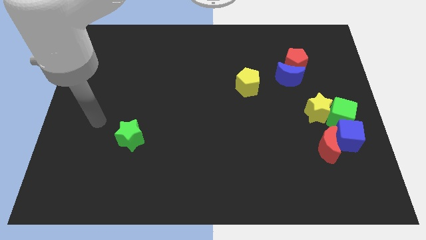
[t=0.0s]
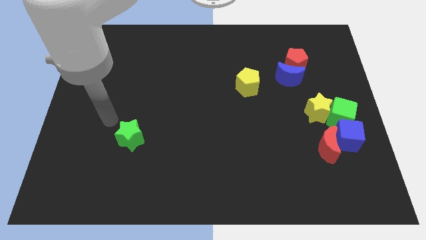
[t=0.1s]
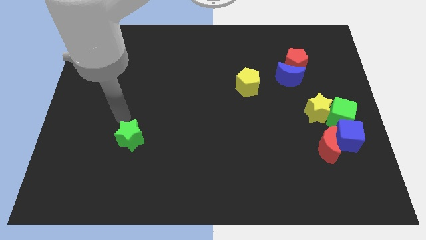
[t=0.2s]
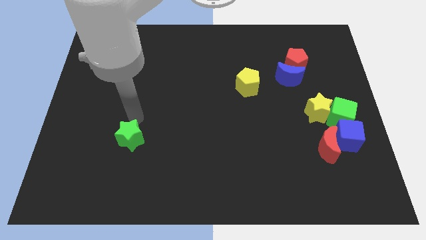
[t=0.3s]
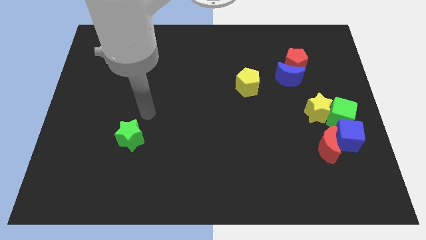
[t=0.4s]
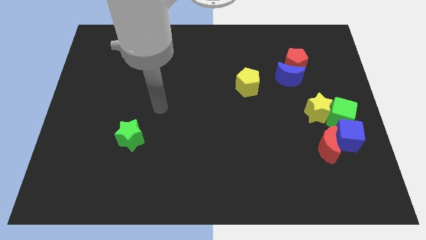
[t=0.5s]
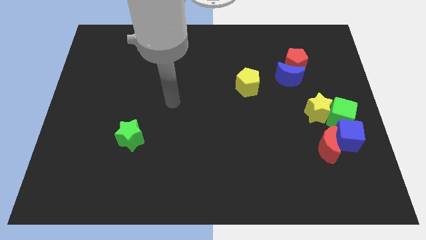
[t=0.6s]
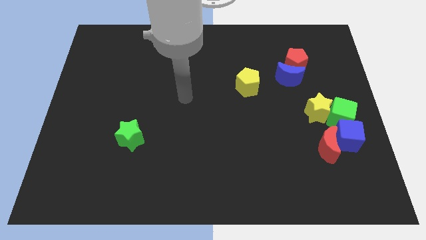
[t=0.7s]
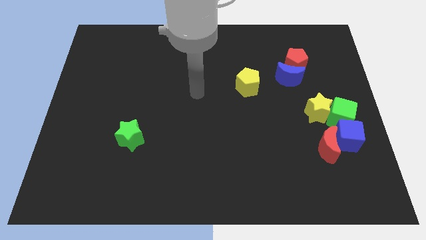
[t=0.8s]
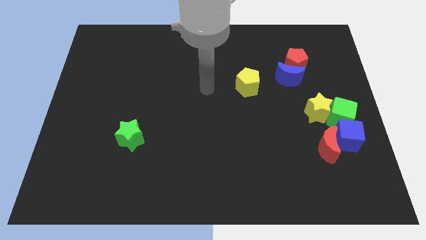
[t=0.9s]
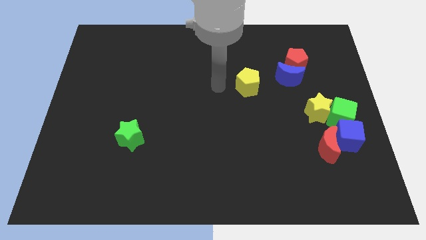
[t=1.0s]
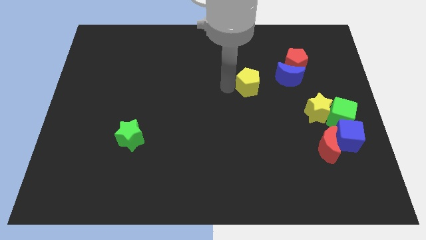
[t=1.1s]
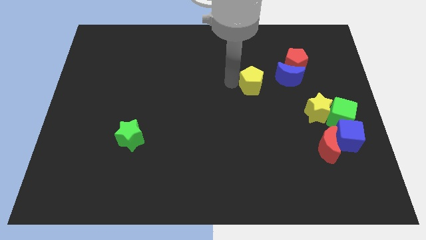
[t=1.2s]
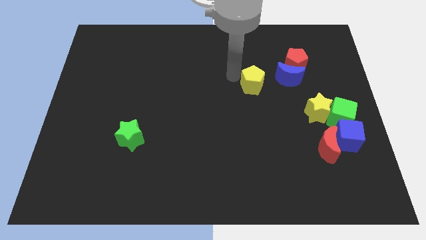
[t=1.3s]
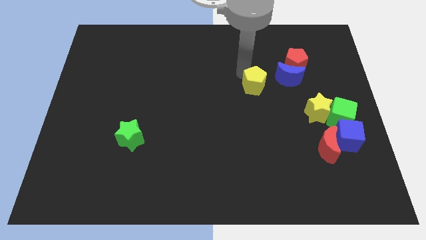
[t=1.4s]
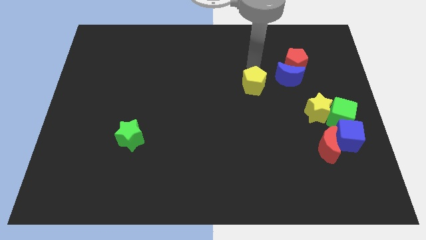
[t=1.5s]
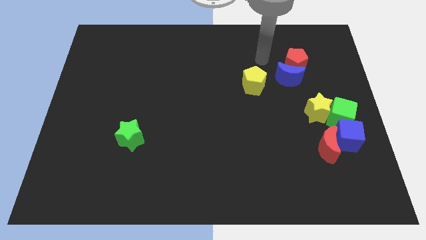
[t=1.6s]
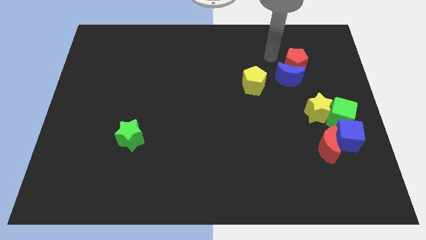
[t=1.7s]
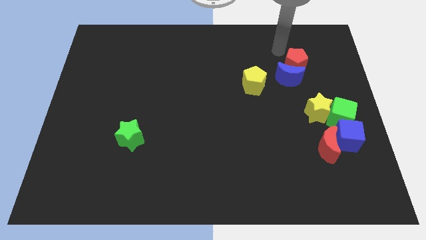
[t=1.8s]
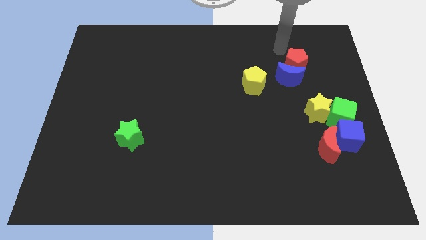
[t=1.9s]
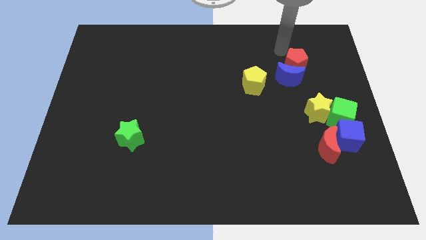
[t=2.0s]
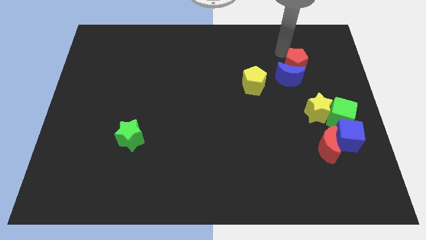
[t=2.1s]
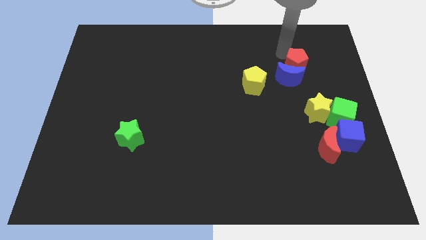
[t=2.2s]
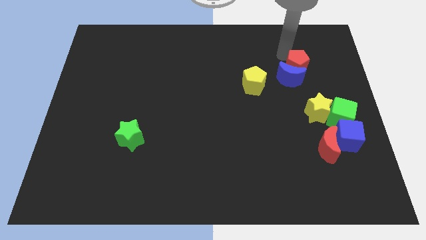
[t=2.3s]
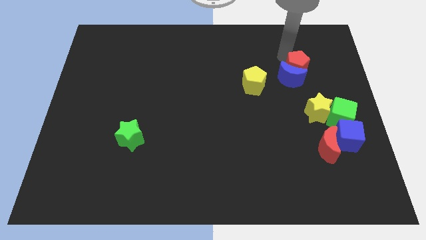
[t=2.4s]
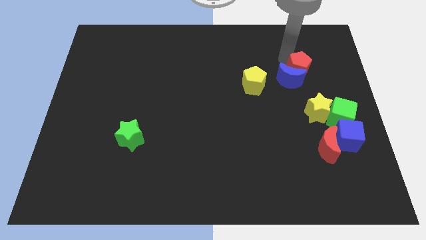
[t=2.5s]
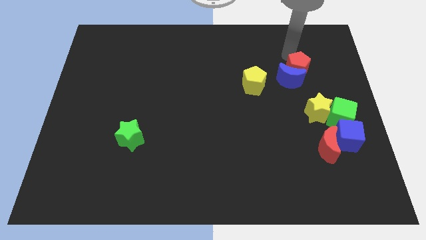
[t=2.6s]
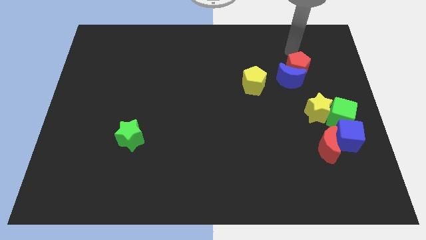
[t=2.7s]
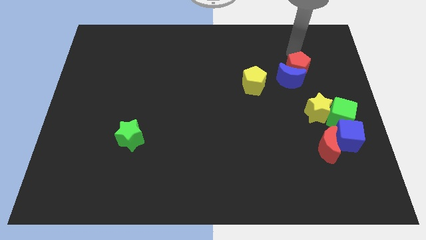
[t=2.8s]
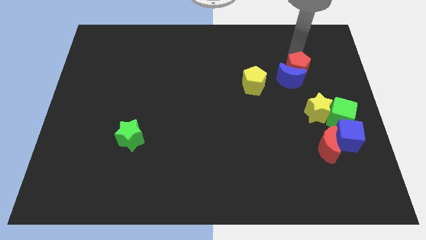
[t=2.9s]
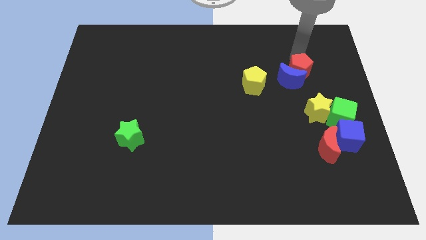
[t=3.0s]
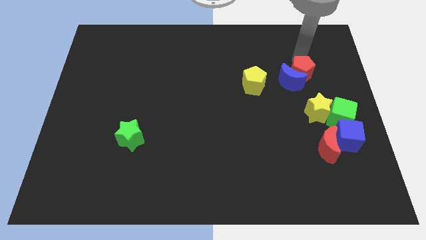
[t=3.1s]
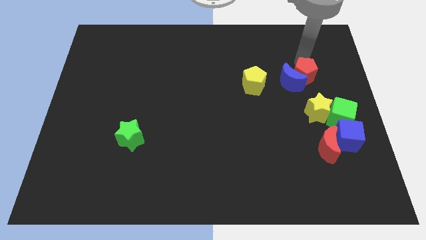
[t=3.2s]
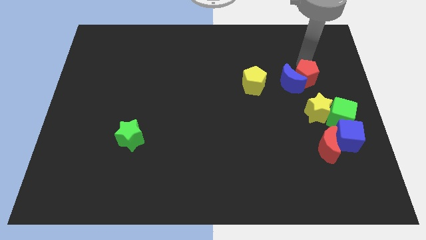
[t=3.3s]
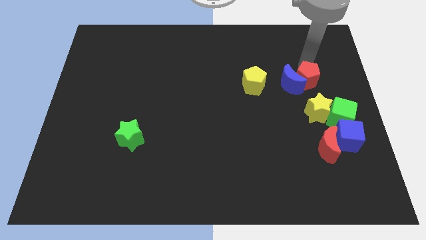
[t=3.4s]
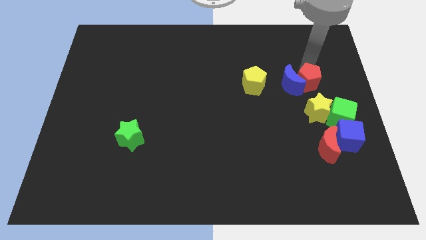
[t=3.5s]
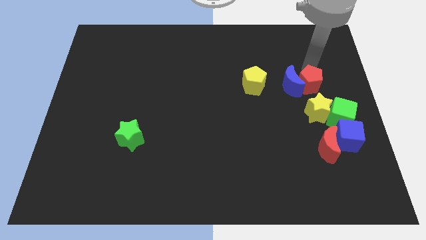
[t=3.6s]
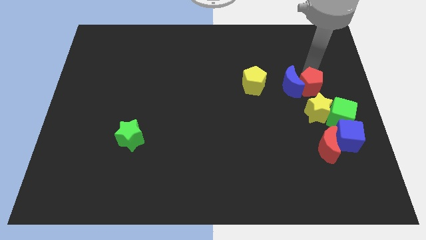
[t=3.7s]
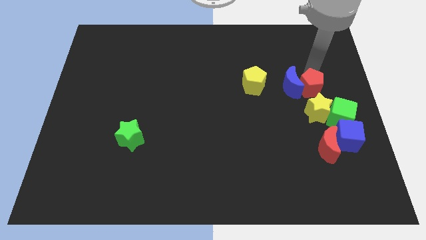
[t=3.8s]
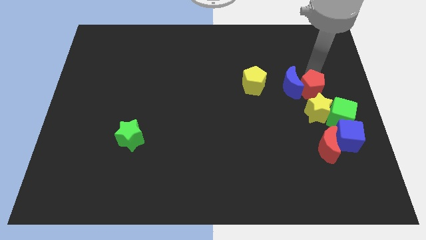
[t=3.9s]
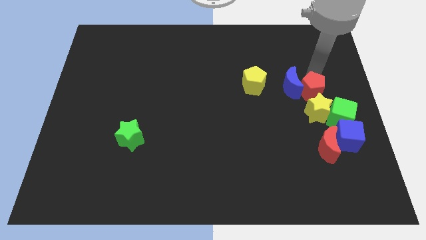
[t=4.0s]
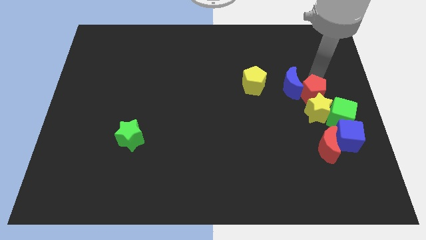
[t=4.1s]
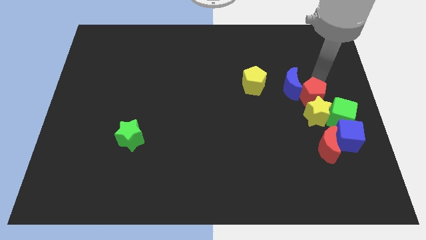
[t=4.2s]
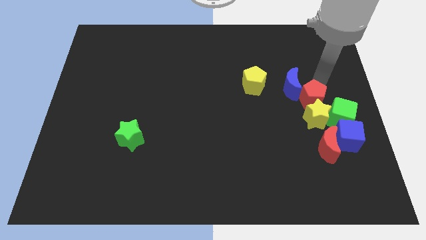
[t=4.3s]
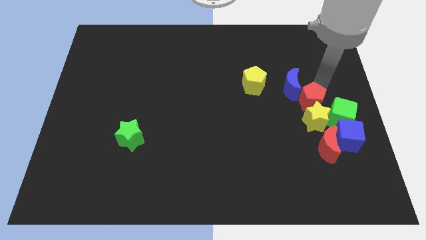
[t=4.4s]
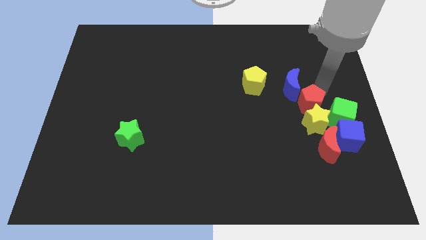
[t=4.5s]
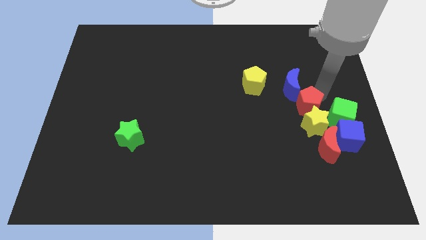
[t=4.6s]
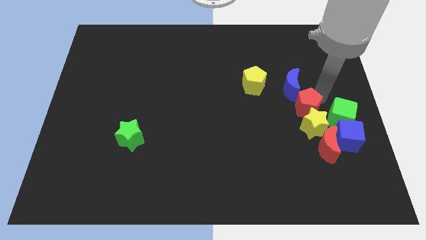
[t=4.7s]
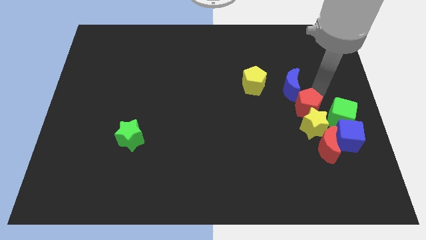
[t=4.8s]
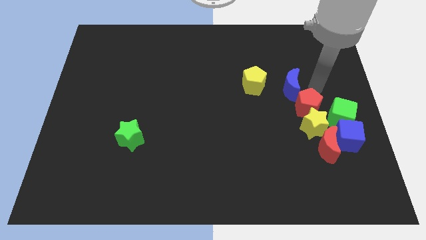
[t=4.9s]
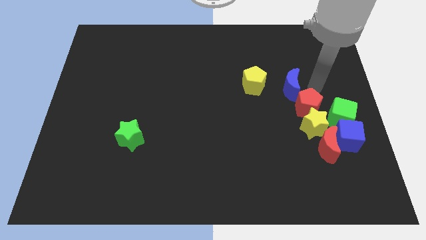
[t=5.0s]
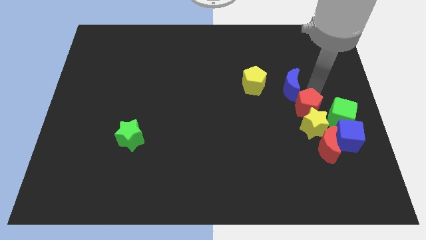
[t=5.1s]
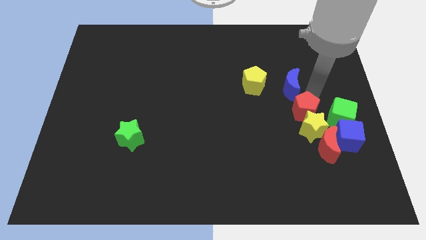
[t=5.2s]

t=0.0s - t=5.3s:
put the red pentagon diagonally up and to the left of the red moon

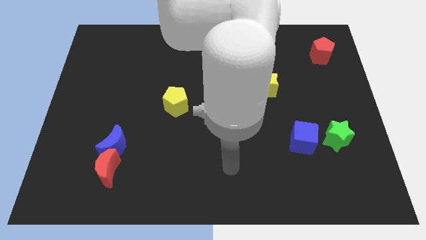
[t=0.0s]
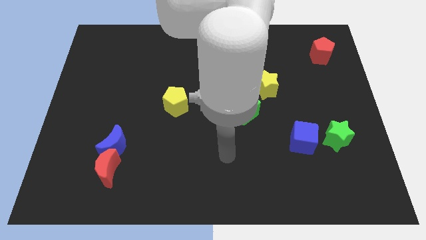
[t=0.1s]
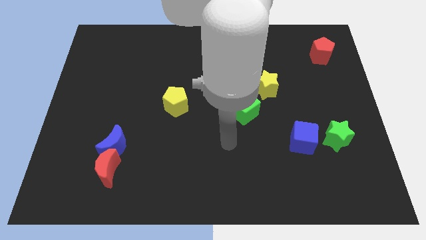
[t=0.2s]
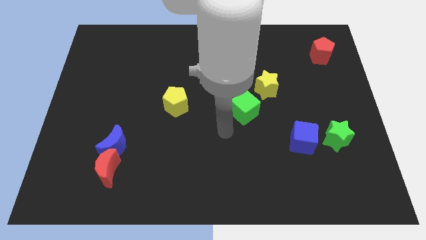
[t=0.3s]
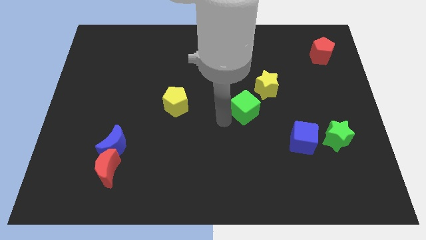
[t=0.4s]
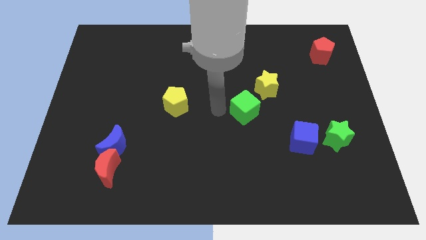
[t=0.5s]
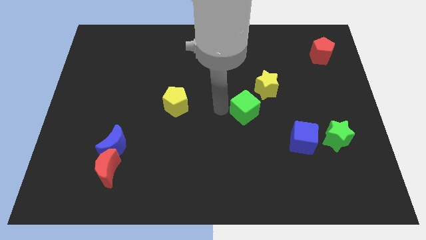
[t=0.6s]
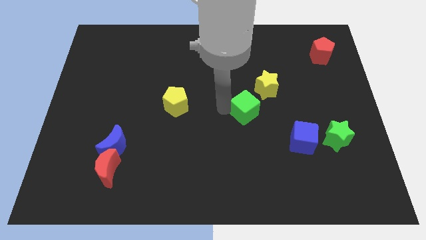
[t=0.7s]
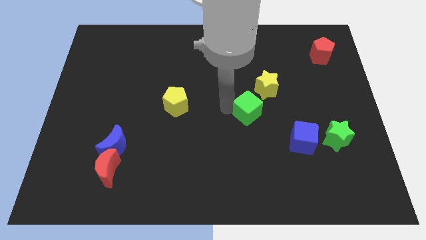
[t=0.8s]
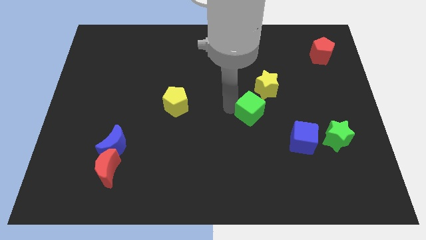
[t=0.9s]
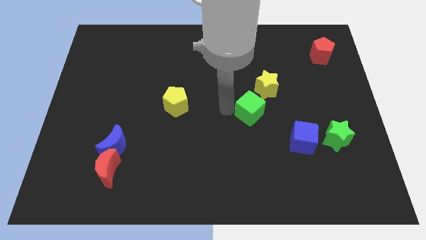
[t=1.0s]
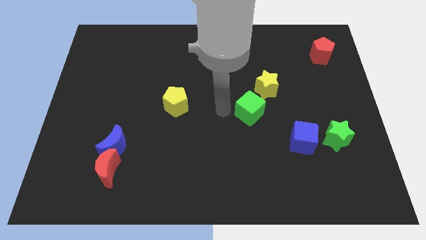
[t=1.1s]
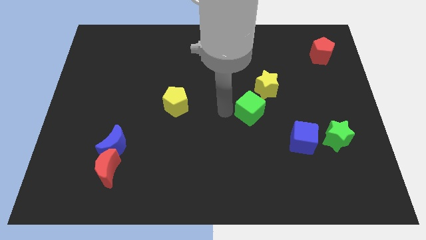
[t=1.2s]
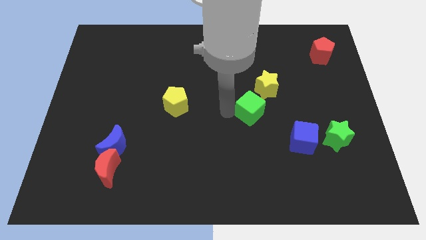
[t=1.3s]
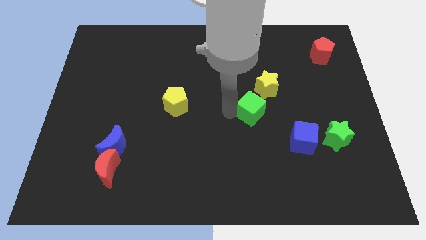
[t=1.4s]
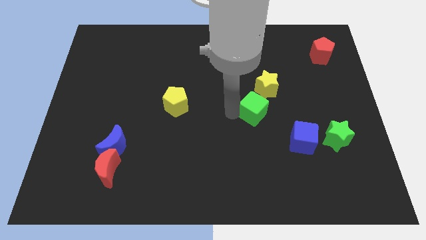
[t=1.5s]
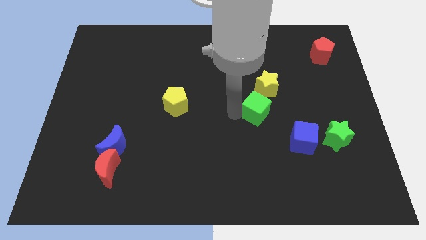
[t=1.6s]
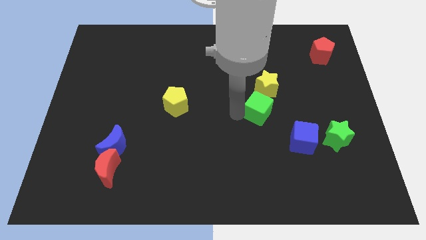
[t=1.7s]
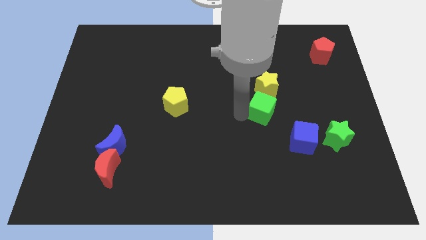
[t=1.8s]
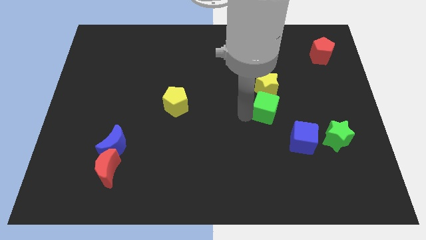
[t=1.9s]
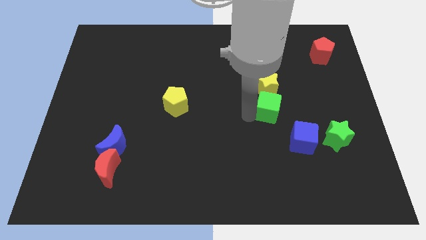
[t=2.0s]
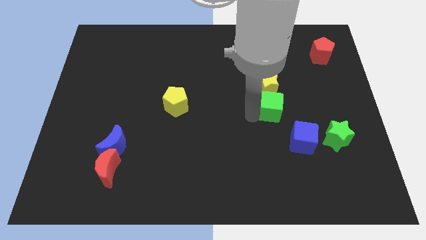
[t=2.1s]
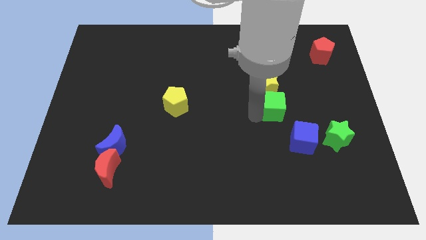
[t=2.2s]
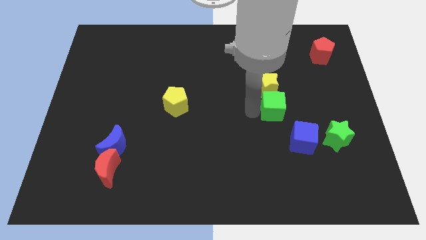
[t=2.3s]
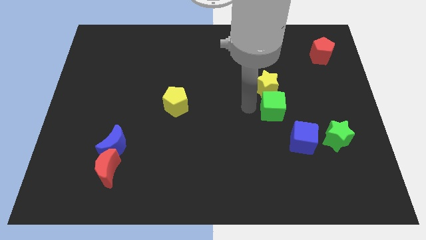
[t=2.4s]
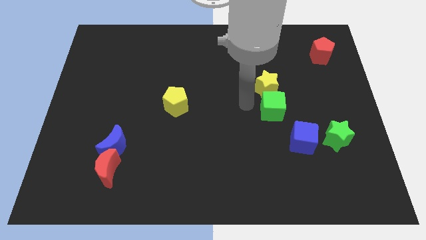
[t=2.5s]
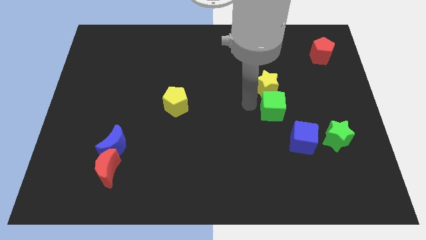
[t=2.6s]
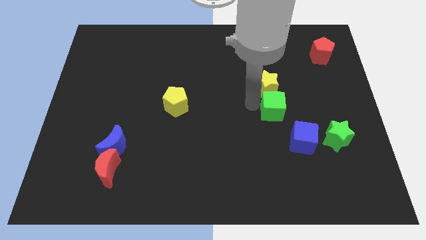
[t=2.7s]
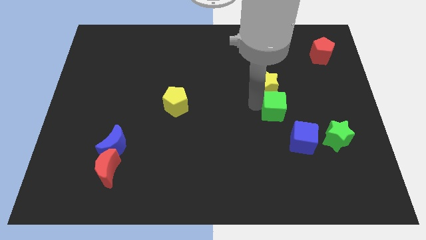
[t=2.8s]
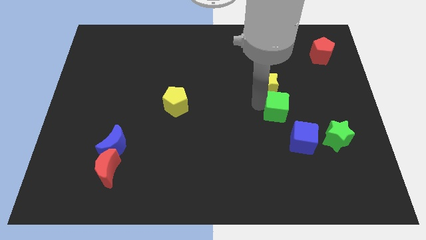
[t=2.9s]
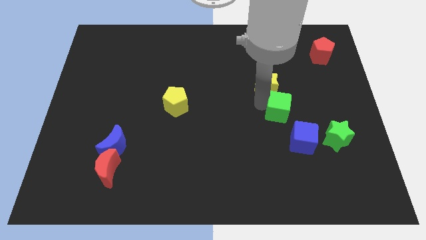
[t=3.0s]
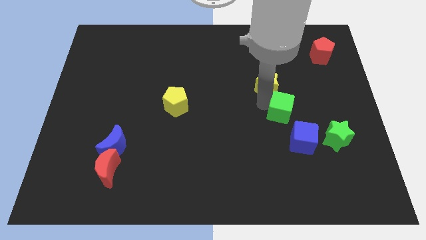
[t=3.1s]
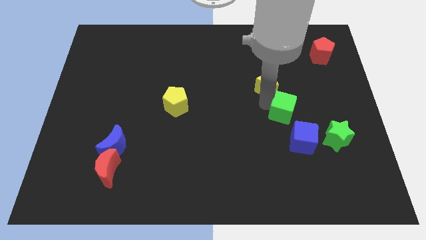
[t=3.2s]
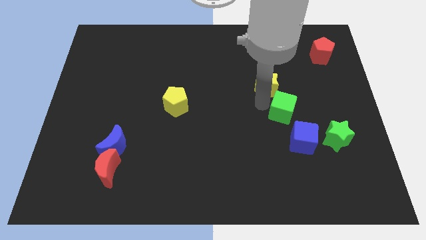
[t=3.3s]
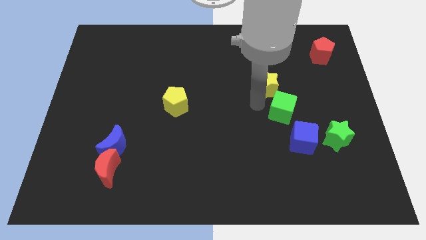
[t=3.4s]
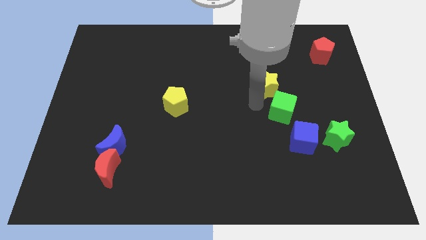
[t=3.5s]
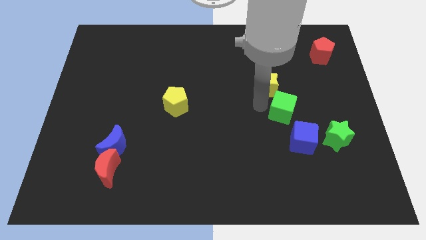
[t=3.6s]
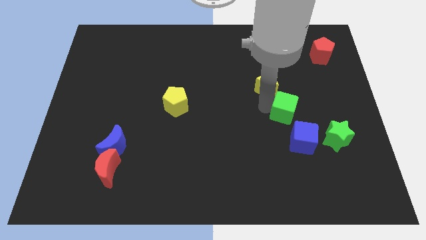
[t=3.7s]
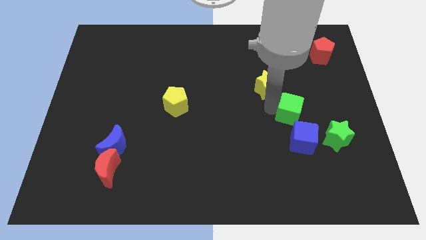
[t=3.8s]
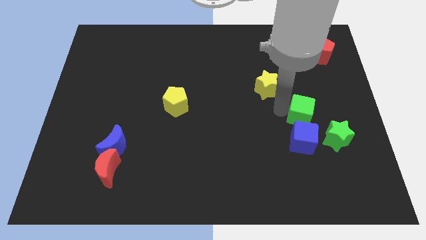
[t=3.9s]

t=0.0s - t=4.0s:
move the green cube to the top right side of the blue cube
